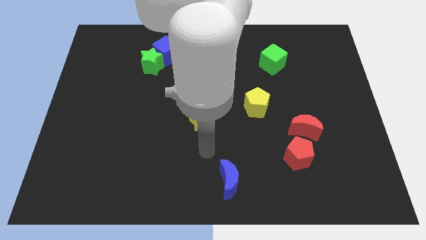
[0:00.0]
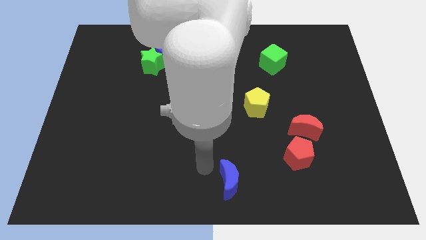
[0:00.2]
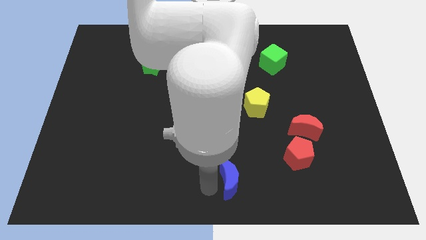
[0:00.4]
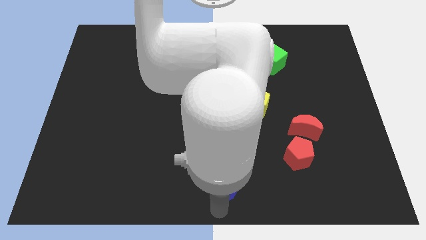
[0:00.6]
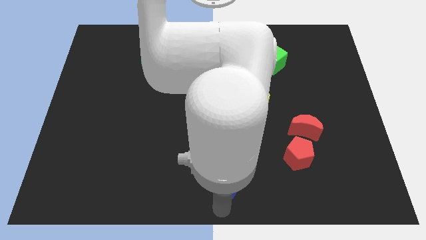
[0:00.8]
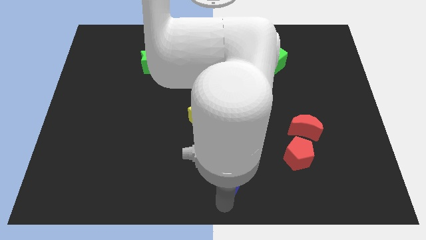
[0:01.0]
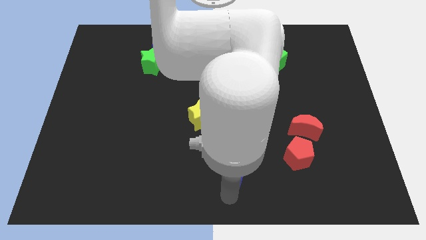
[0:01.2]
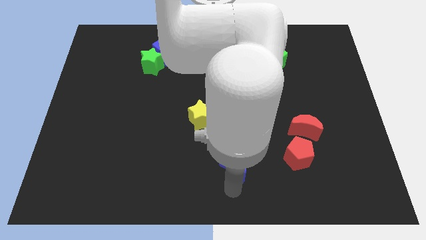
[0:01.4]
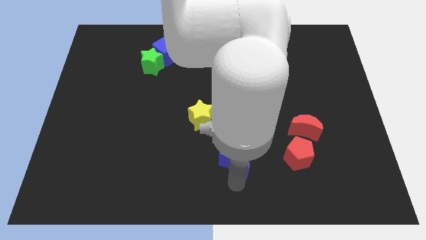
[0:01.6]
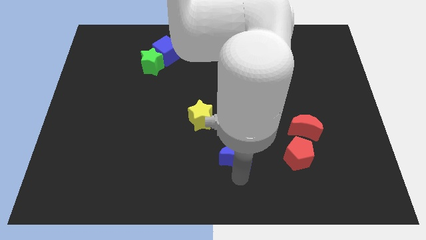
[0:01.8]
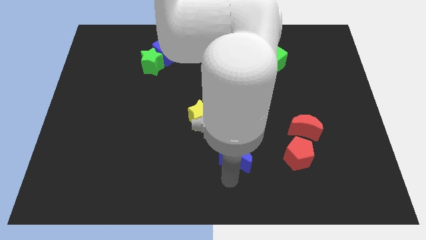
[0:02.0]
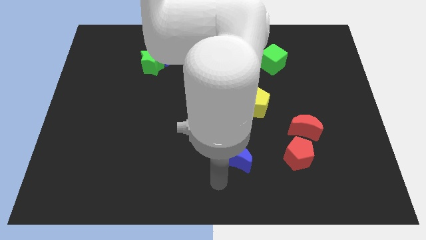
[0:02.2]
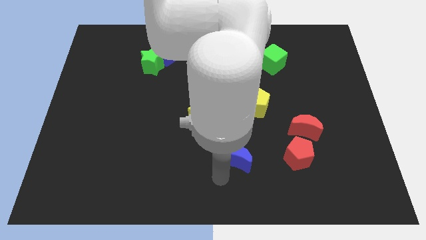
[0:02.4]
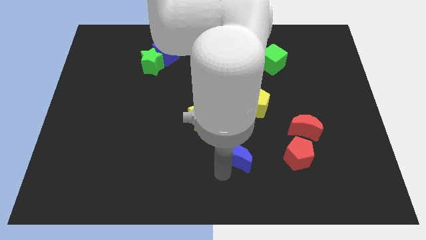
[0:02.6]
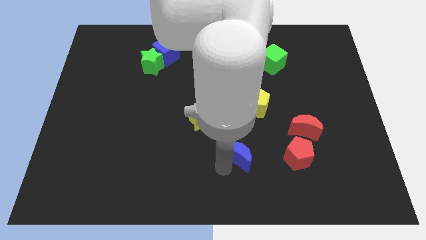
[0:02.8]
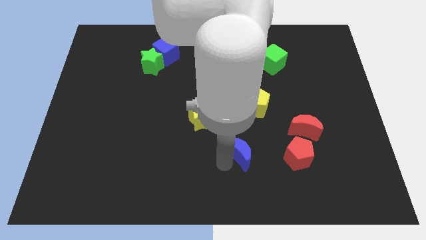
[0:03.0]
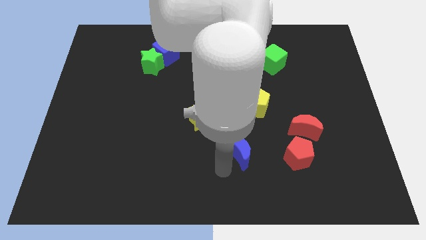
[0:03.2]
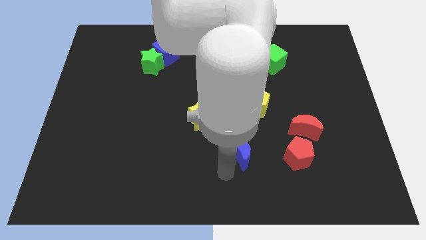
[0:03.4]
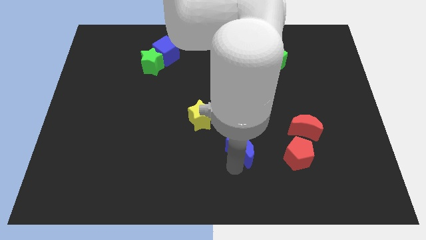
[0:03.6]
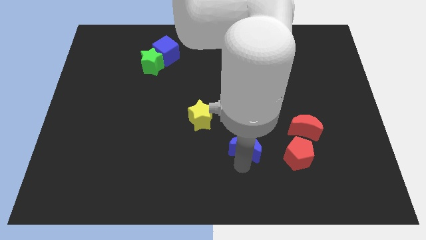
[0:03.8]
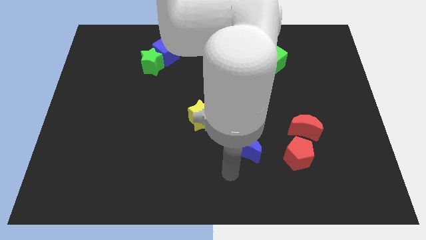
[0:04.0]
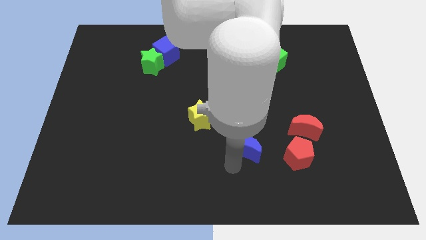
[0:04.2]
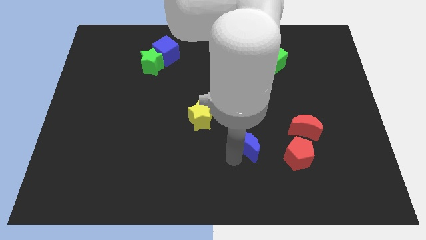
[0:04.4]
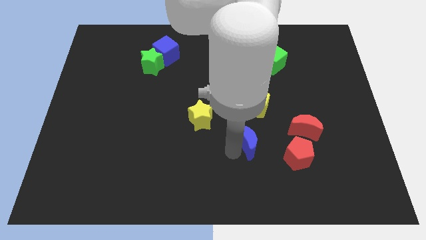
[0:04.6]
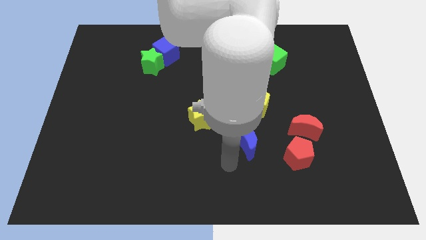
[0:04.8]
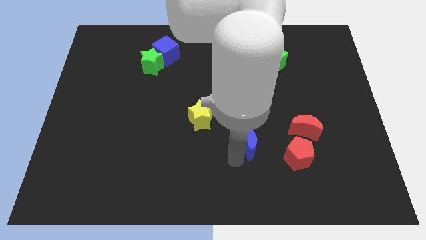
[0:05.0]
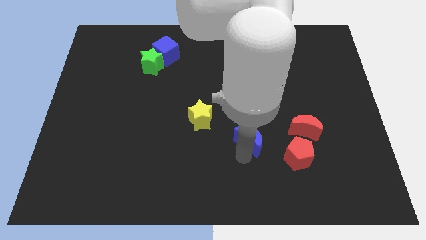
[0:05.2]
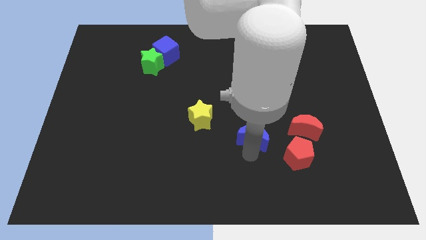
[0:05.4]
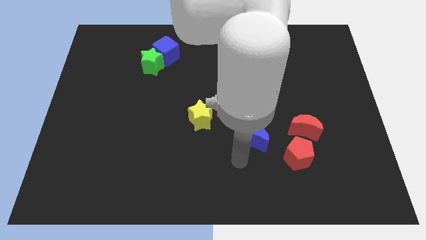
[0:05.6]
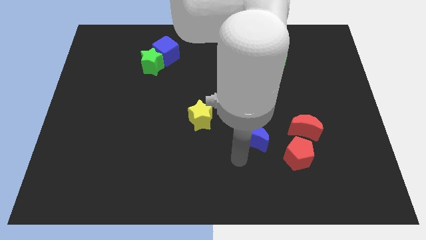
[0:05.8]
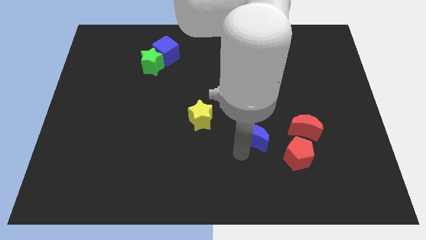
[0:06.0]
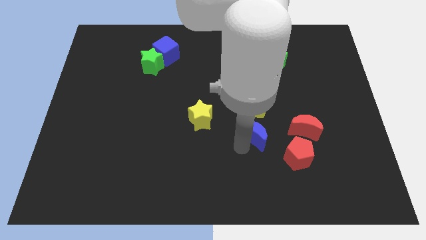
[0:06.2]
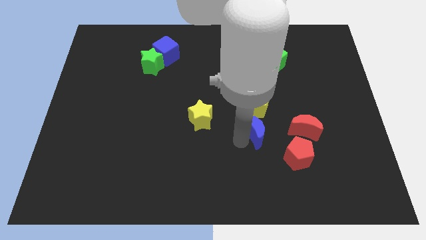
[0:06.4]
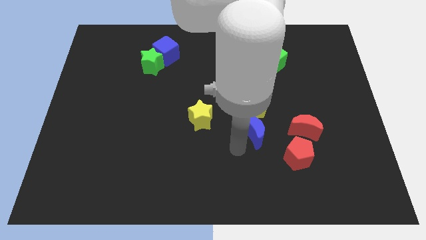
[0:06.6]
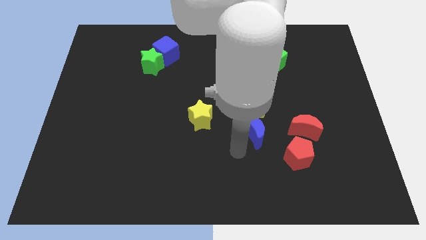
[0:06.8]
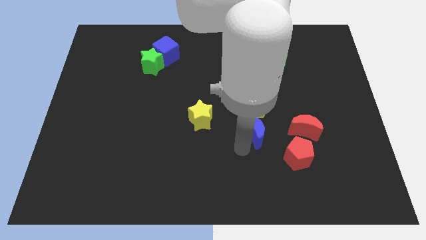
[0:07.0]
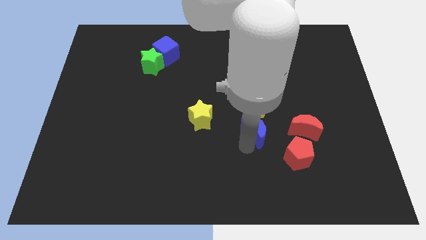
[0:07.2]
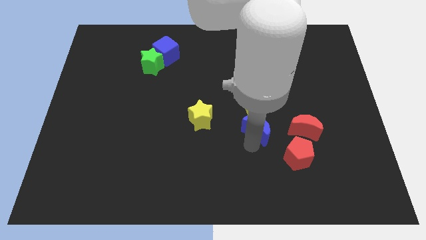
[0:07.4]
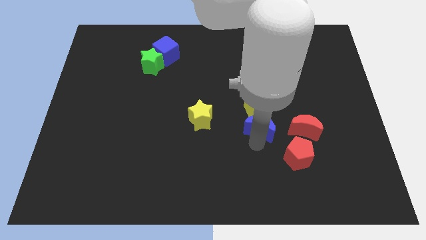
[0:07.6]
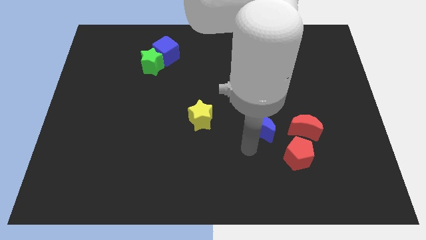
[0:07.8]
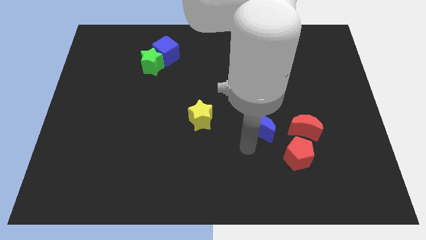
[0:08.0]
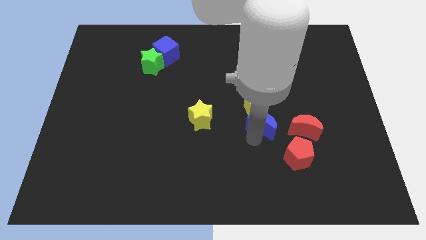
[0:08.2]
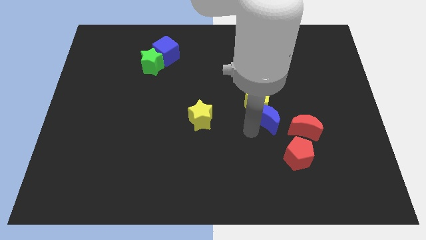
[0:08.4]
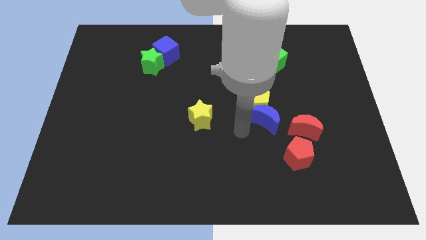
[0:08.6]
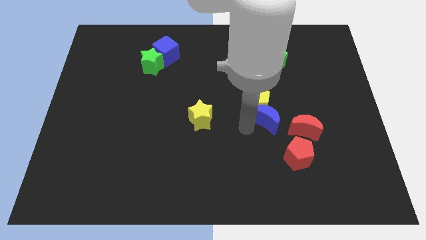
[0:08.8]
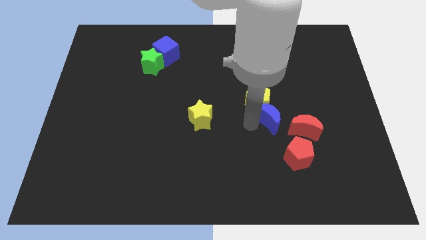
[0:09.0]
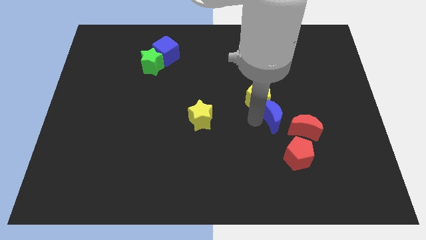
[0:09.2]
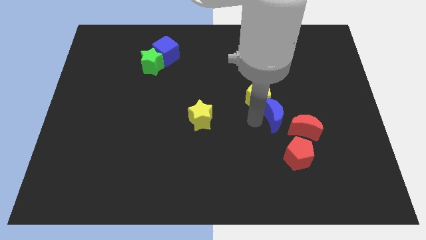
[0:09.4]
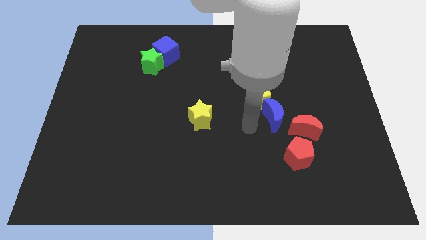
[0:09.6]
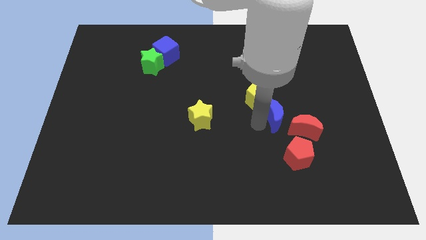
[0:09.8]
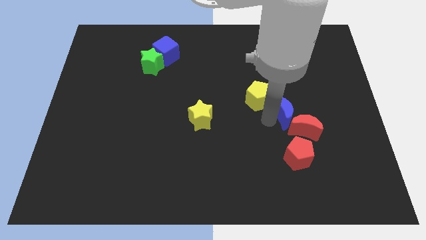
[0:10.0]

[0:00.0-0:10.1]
push the blue moon upwards and right diagonally

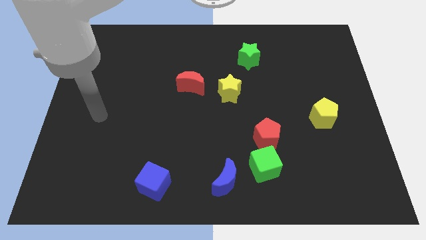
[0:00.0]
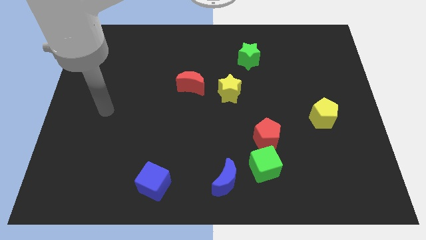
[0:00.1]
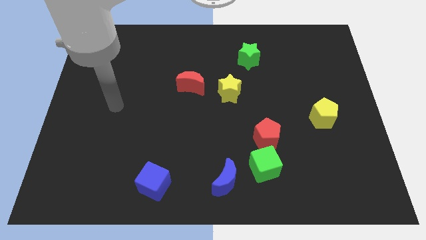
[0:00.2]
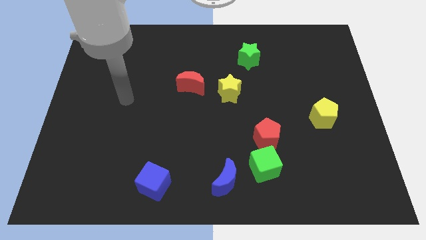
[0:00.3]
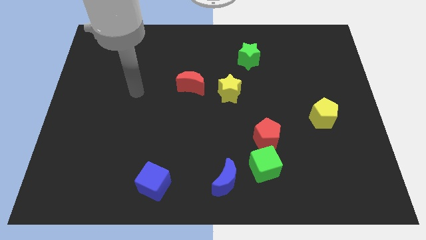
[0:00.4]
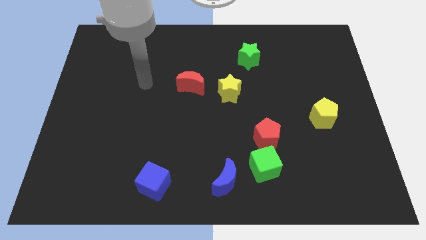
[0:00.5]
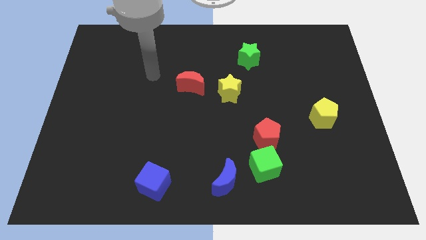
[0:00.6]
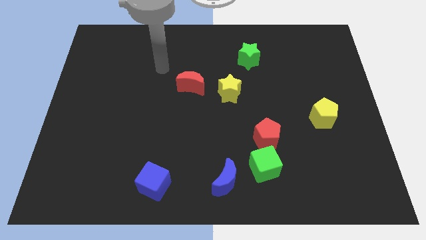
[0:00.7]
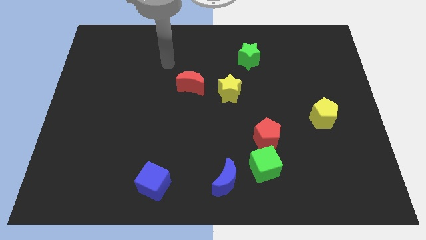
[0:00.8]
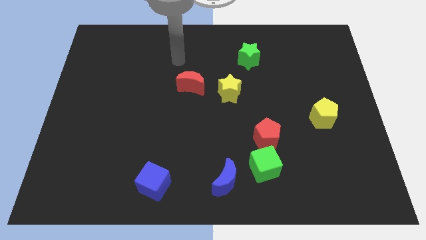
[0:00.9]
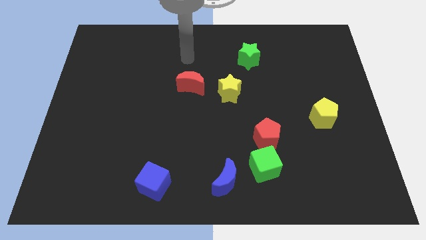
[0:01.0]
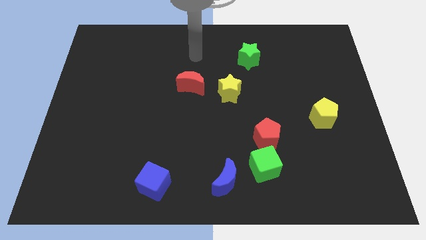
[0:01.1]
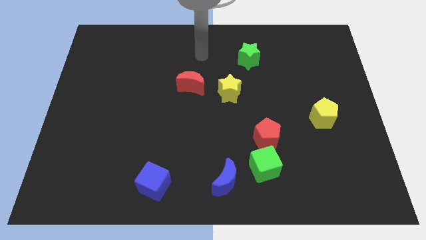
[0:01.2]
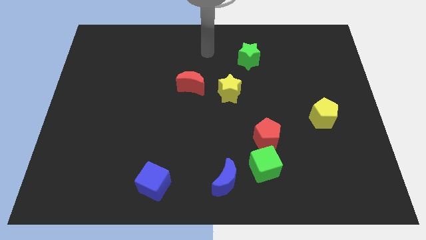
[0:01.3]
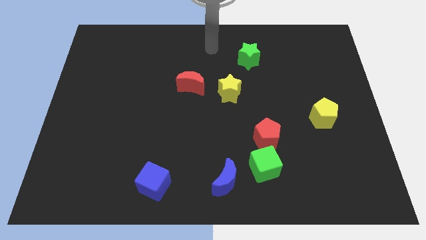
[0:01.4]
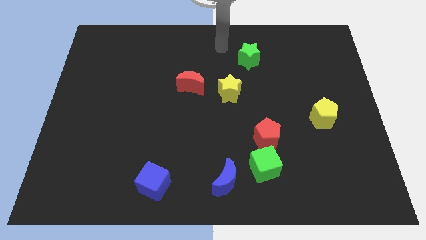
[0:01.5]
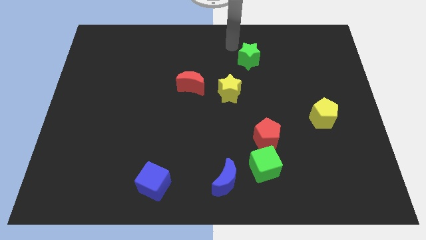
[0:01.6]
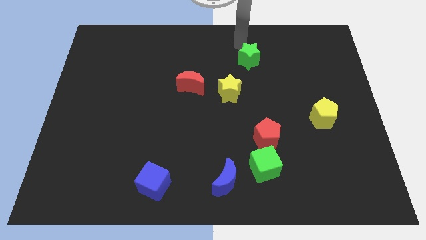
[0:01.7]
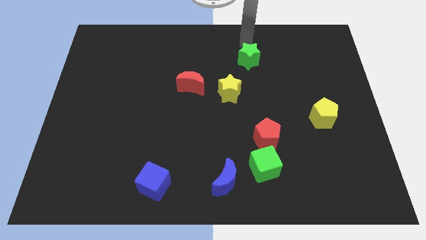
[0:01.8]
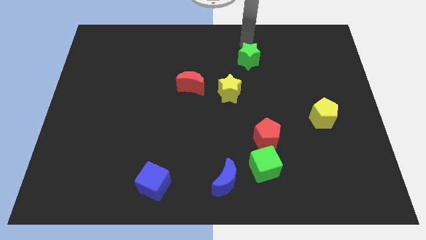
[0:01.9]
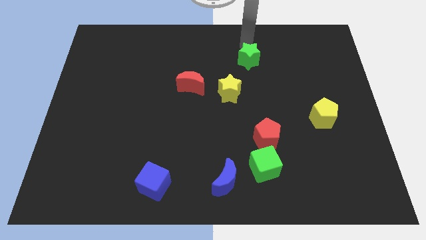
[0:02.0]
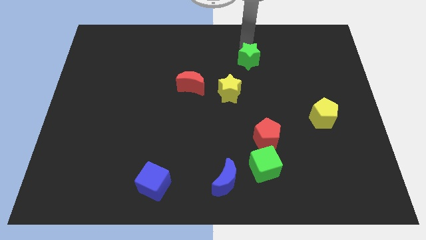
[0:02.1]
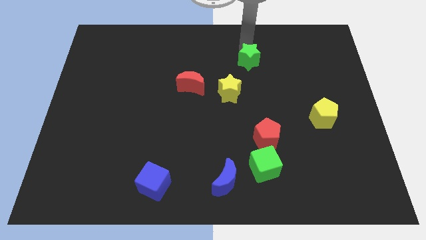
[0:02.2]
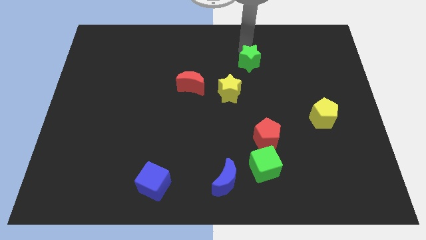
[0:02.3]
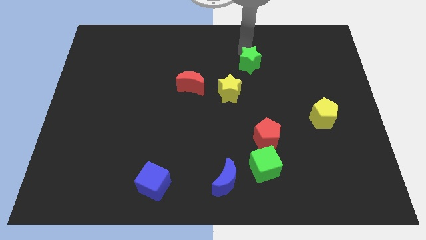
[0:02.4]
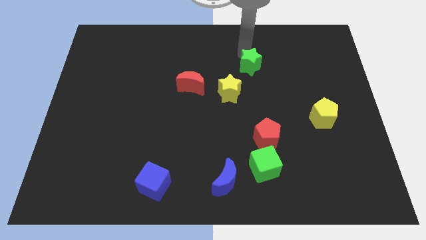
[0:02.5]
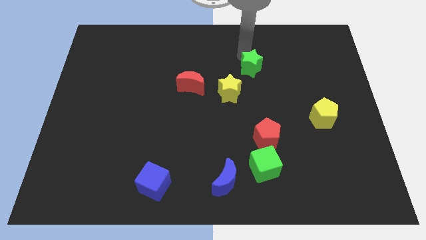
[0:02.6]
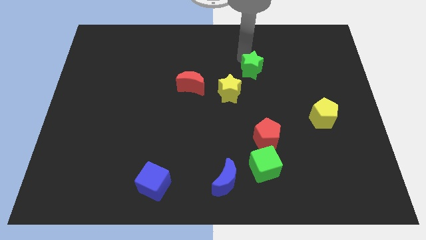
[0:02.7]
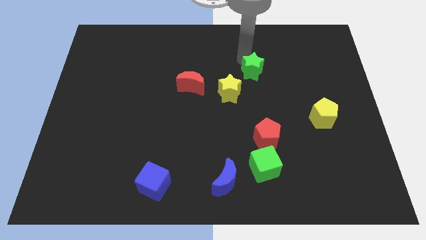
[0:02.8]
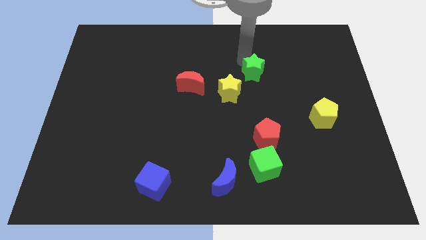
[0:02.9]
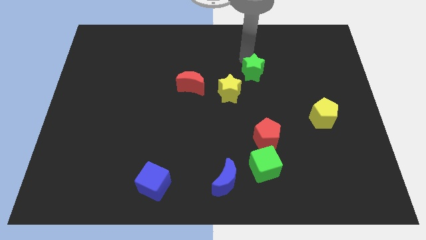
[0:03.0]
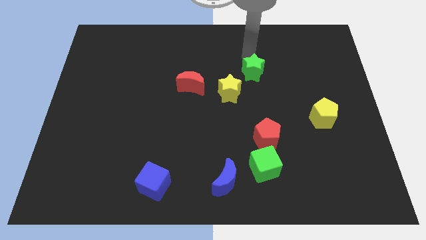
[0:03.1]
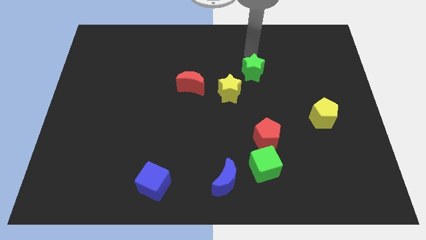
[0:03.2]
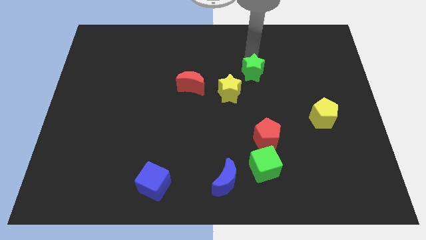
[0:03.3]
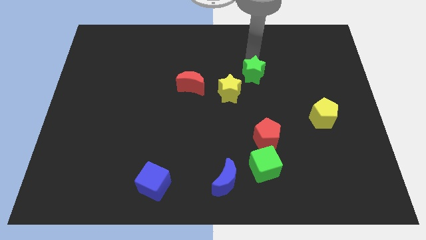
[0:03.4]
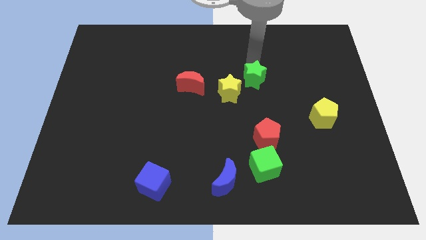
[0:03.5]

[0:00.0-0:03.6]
push the green star a bit downwards
